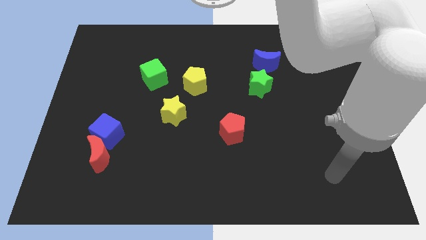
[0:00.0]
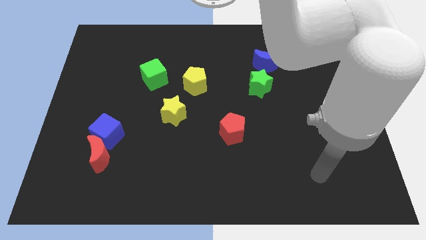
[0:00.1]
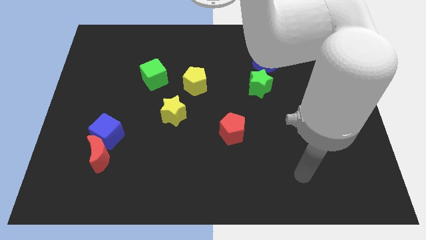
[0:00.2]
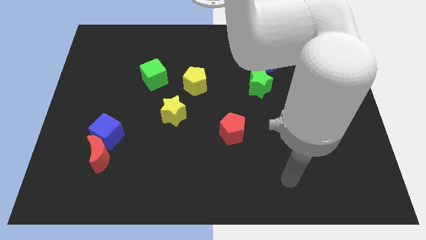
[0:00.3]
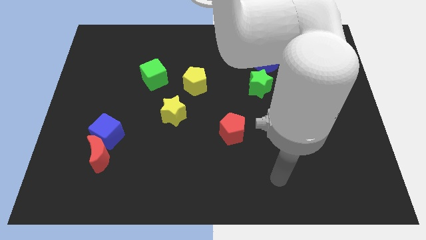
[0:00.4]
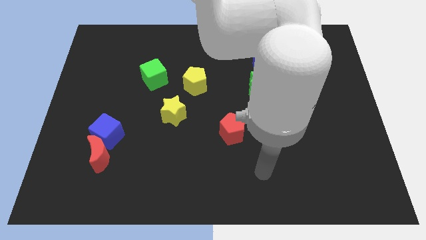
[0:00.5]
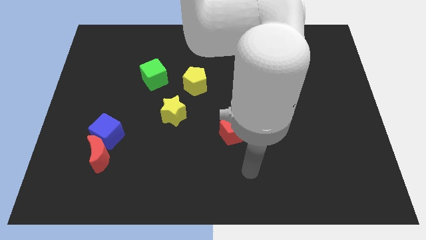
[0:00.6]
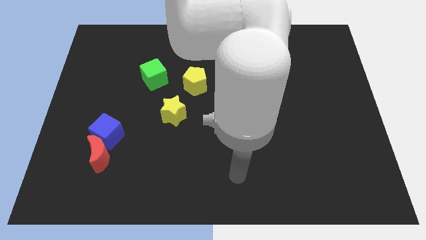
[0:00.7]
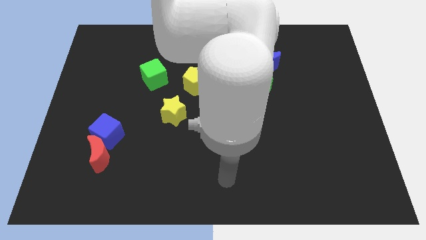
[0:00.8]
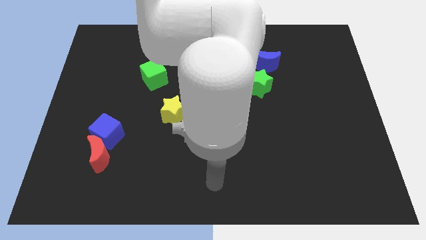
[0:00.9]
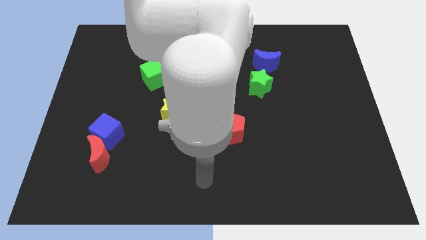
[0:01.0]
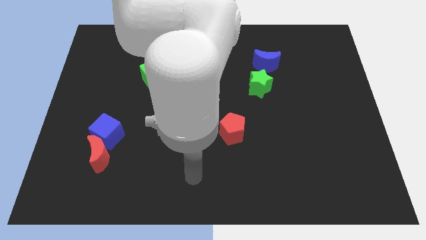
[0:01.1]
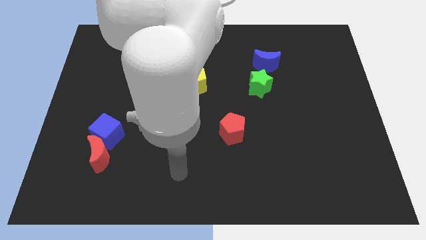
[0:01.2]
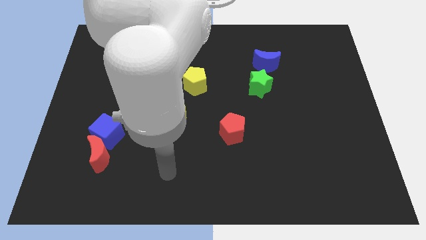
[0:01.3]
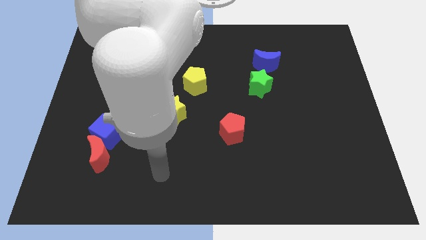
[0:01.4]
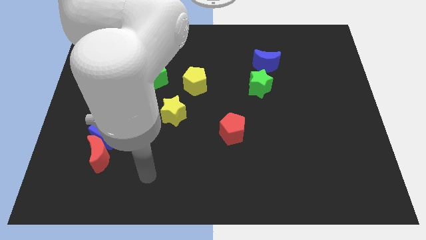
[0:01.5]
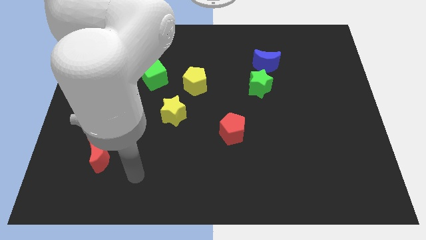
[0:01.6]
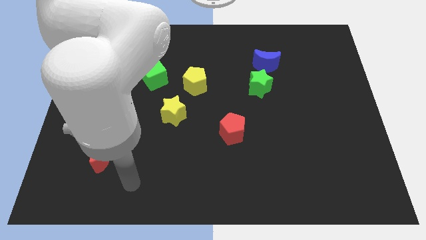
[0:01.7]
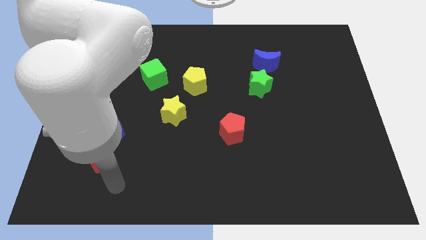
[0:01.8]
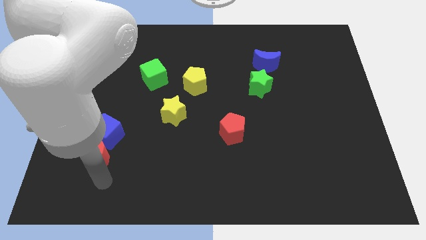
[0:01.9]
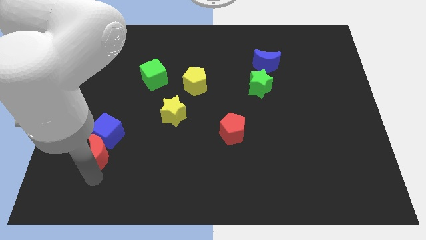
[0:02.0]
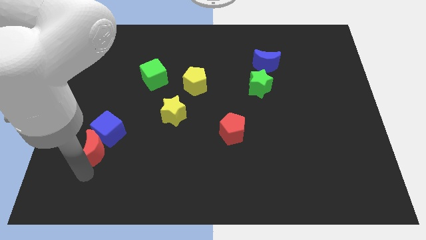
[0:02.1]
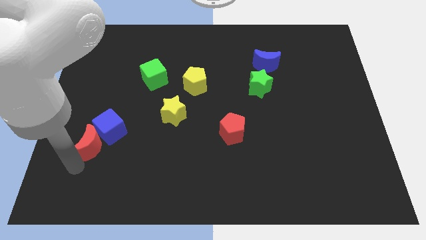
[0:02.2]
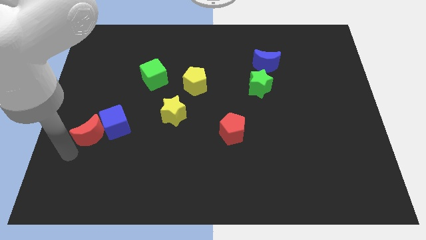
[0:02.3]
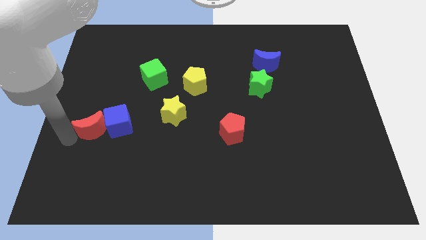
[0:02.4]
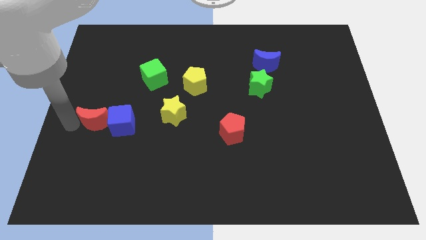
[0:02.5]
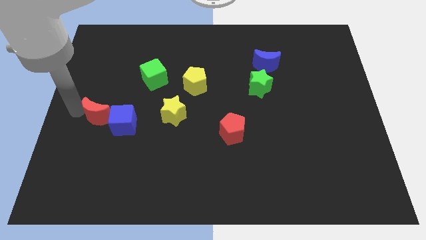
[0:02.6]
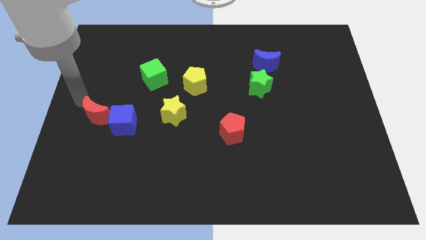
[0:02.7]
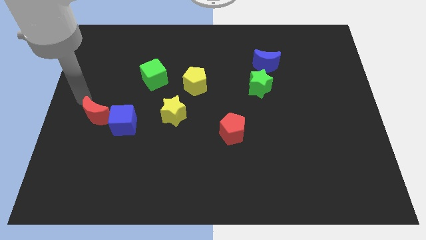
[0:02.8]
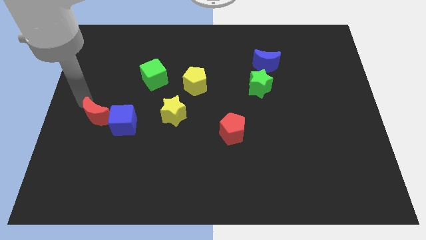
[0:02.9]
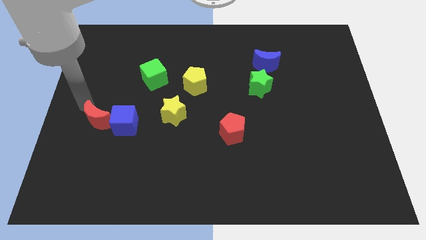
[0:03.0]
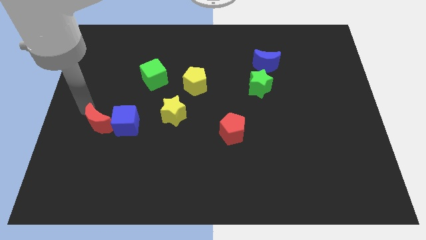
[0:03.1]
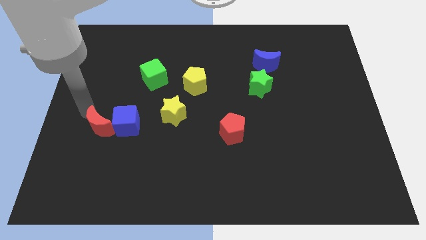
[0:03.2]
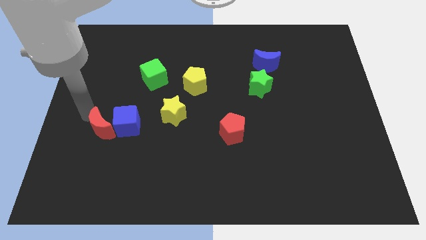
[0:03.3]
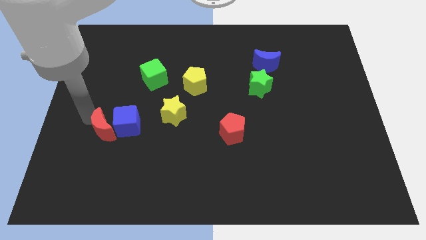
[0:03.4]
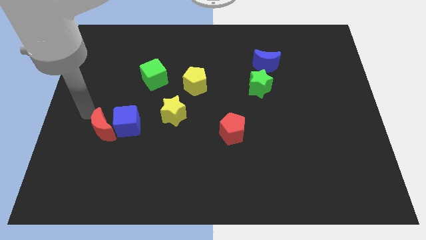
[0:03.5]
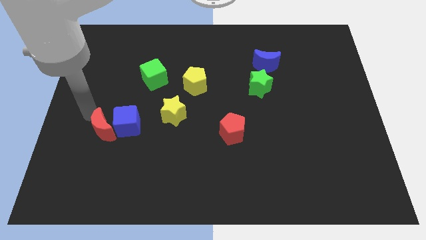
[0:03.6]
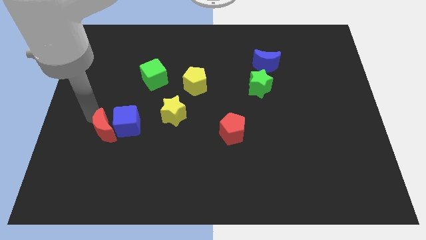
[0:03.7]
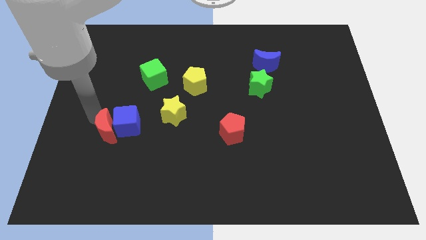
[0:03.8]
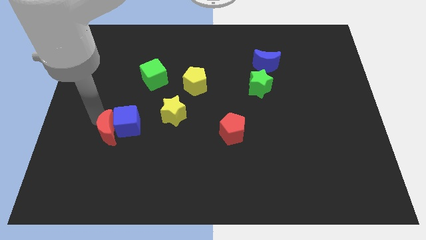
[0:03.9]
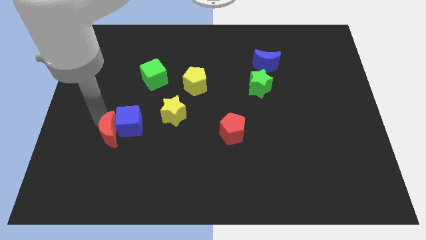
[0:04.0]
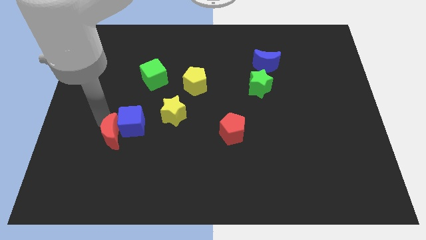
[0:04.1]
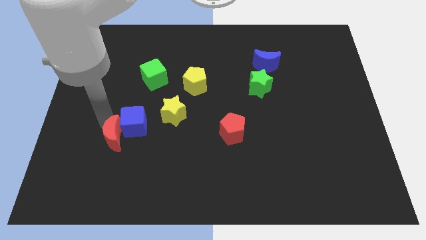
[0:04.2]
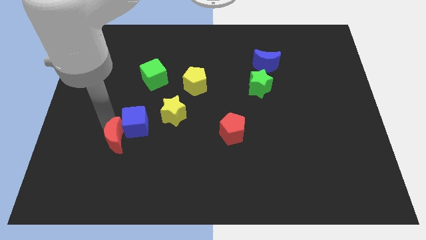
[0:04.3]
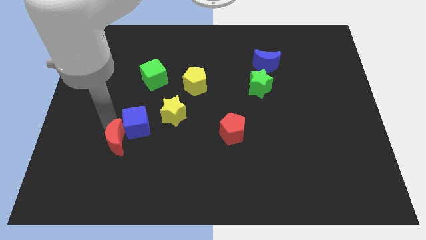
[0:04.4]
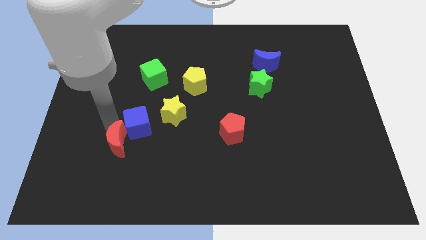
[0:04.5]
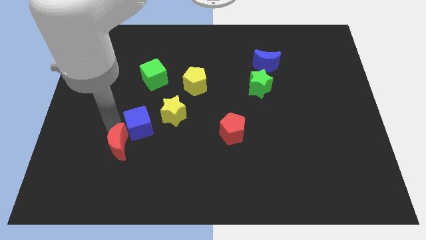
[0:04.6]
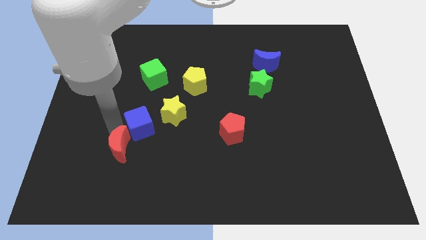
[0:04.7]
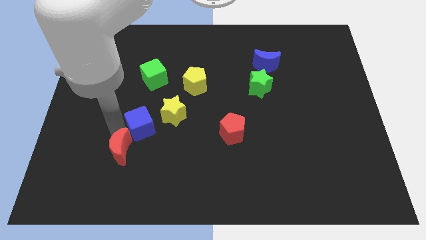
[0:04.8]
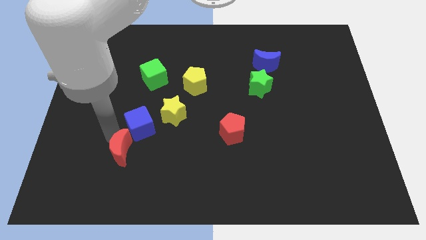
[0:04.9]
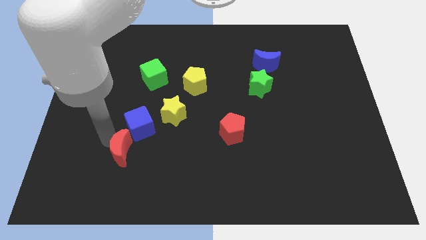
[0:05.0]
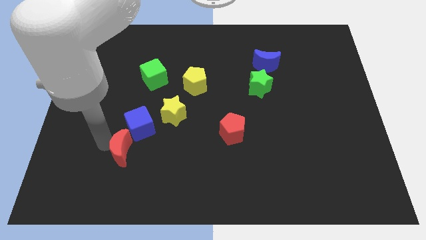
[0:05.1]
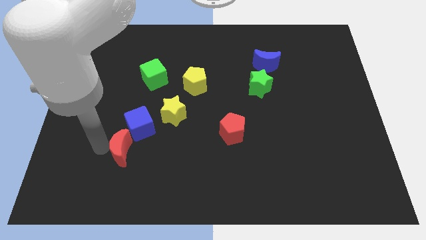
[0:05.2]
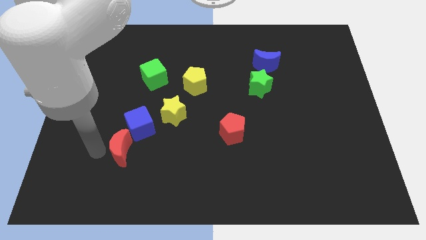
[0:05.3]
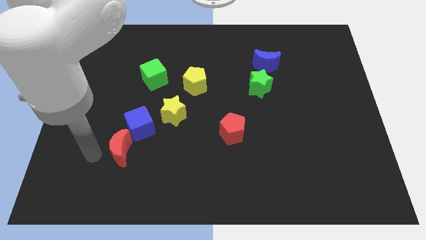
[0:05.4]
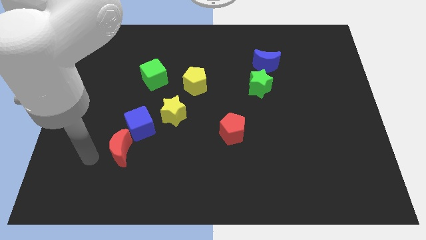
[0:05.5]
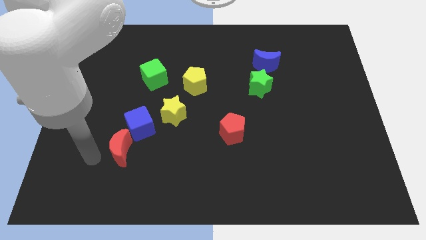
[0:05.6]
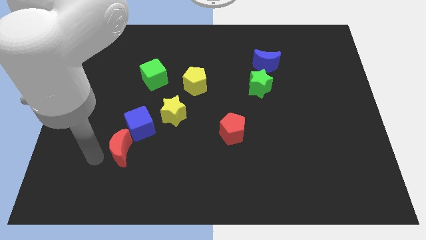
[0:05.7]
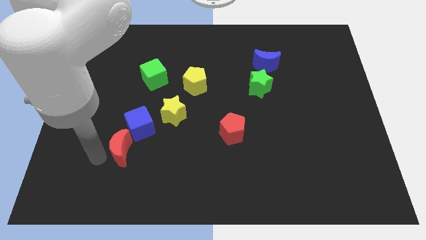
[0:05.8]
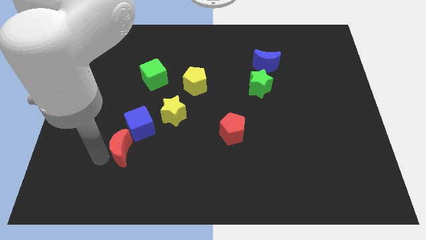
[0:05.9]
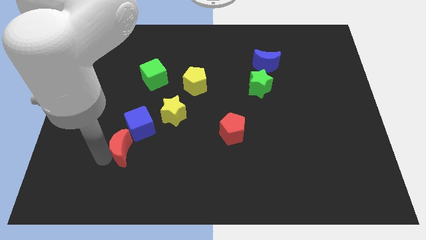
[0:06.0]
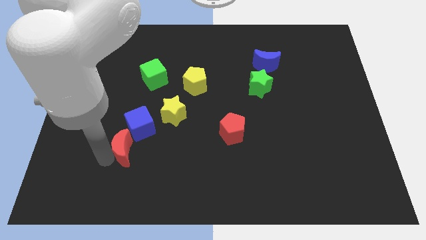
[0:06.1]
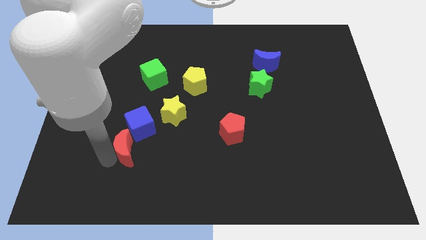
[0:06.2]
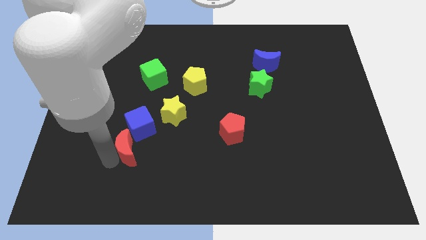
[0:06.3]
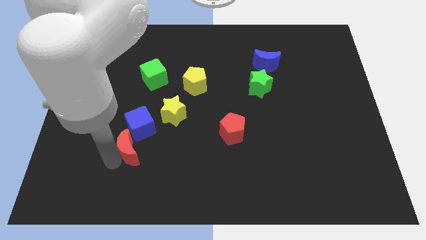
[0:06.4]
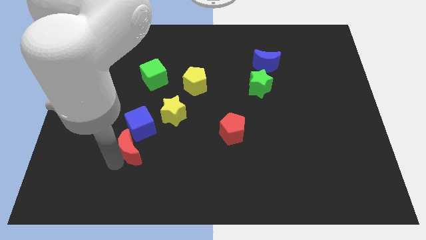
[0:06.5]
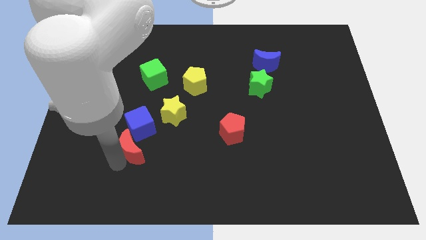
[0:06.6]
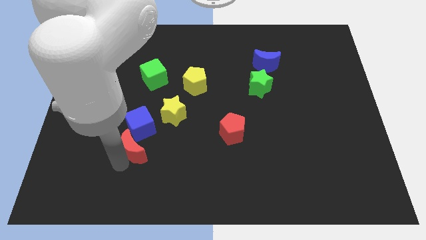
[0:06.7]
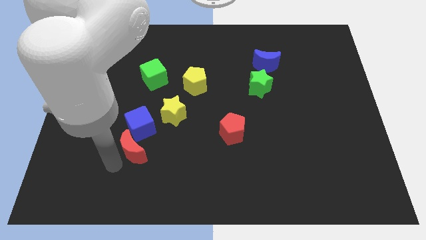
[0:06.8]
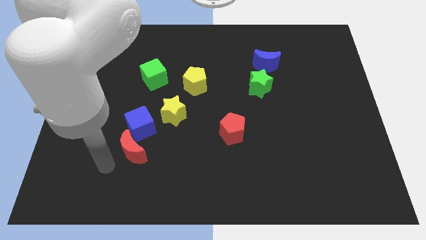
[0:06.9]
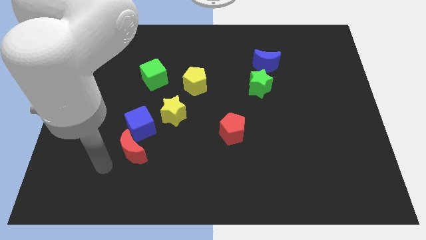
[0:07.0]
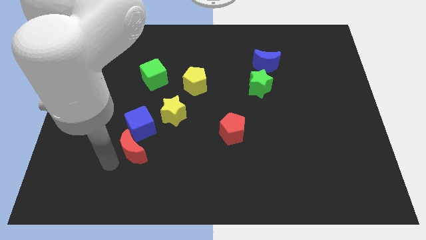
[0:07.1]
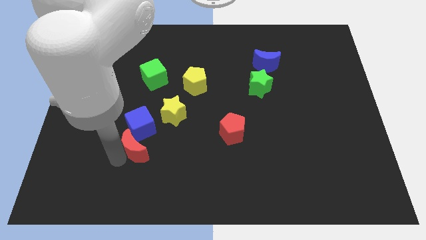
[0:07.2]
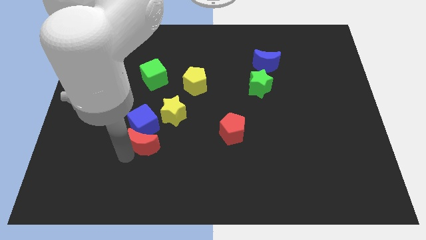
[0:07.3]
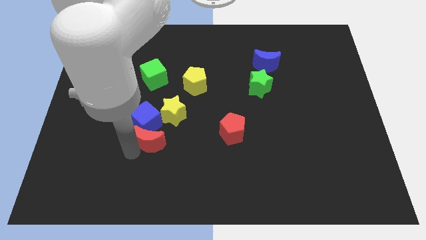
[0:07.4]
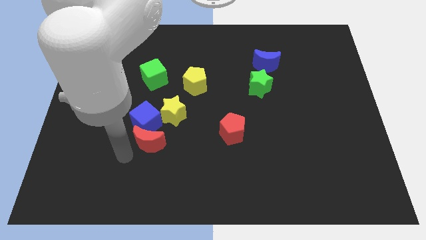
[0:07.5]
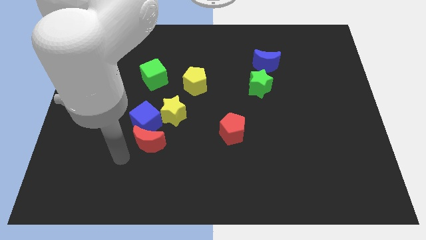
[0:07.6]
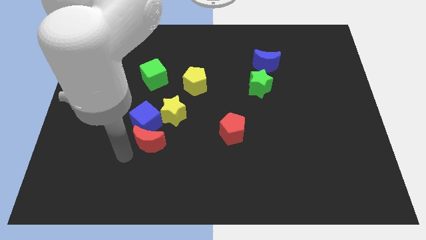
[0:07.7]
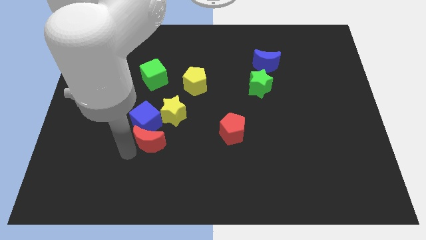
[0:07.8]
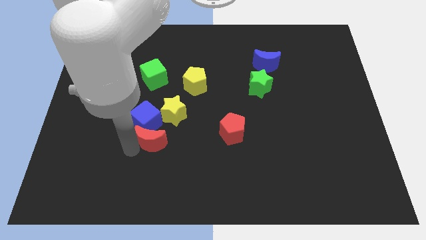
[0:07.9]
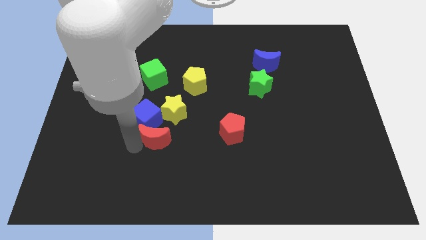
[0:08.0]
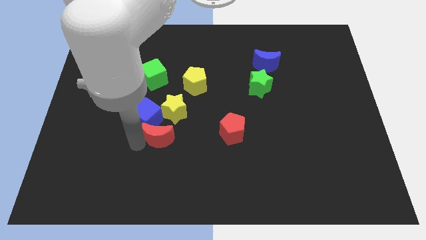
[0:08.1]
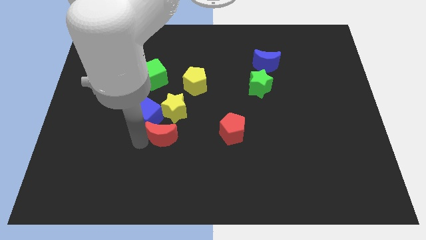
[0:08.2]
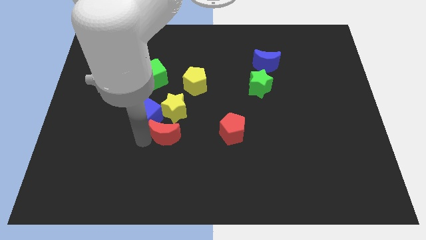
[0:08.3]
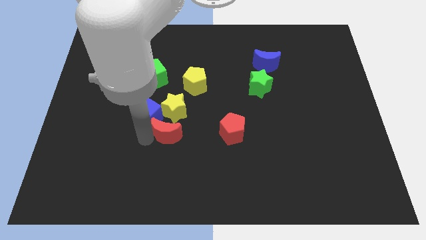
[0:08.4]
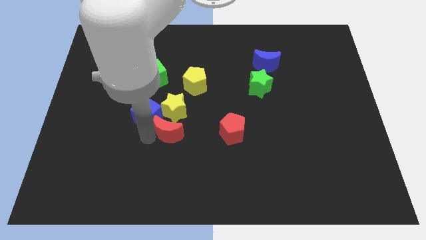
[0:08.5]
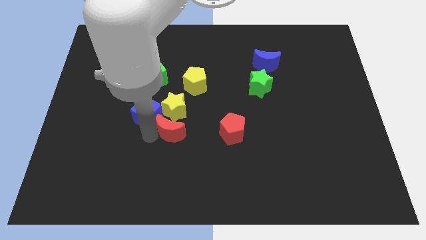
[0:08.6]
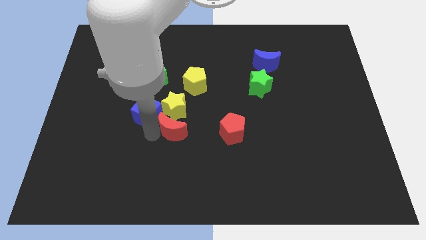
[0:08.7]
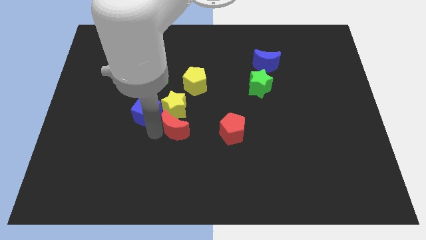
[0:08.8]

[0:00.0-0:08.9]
put the red moon to the center of the board
